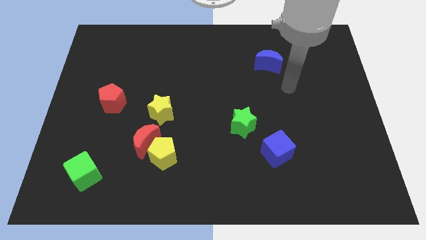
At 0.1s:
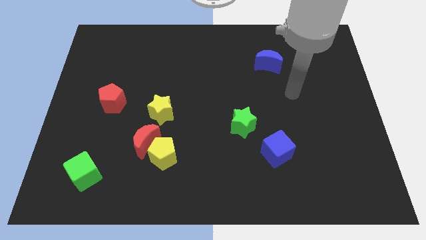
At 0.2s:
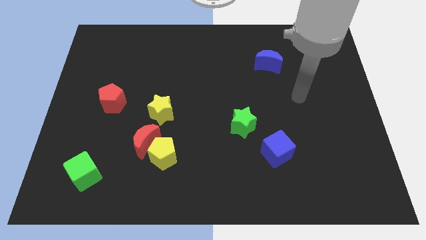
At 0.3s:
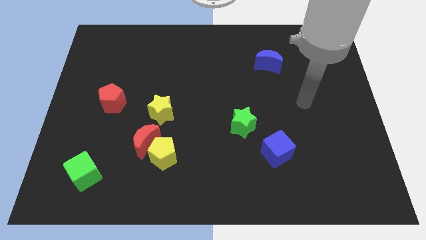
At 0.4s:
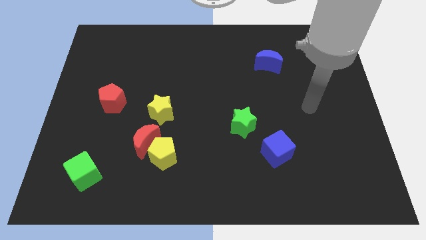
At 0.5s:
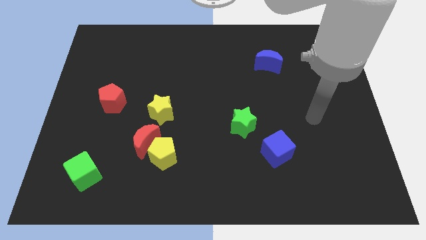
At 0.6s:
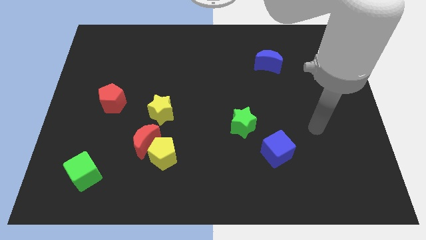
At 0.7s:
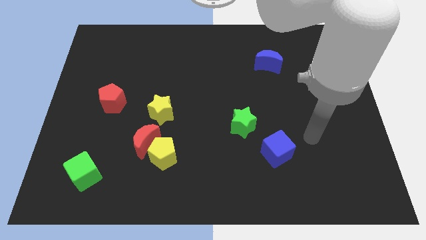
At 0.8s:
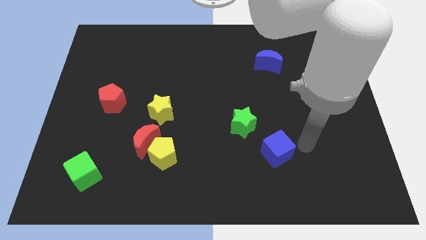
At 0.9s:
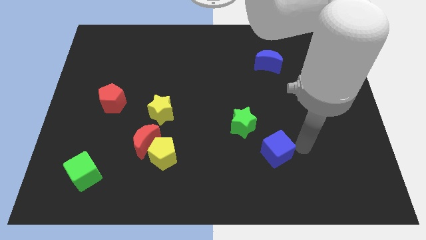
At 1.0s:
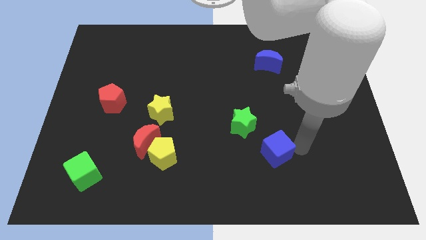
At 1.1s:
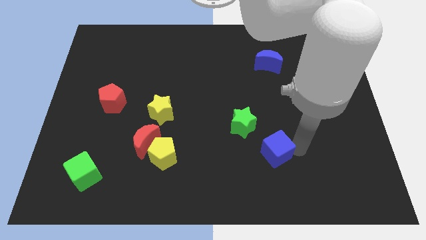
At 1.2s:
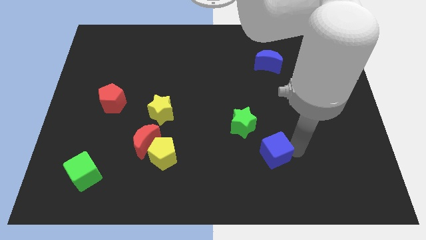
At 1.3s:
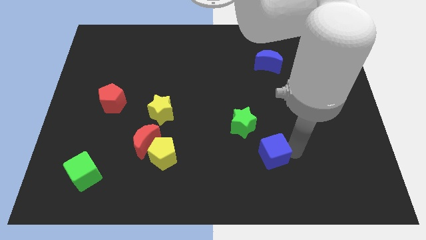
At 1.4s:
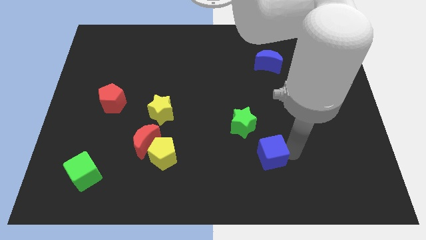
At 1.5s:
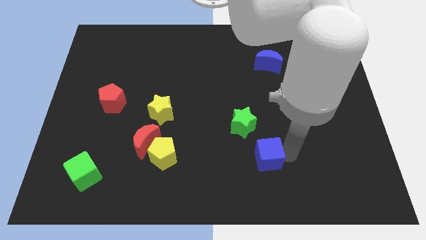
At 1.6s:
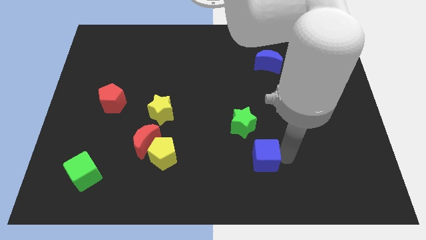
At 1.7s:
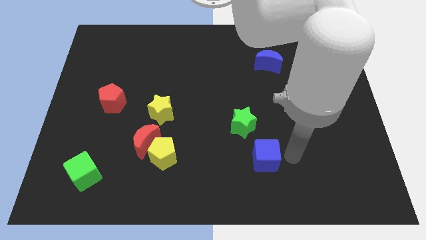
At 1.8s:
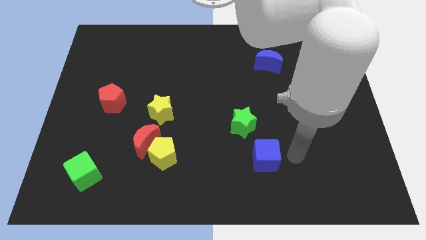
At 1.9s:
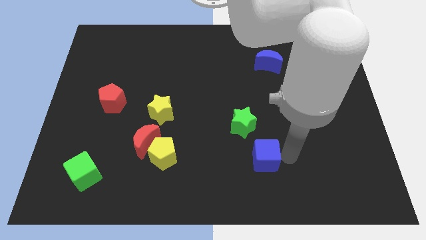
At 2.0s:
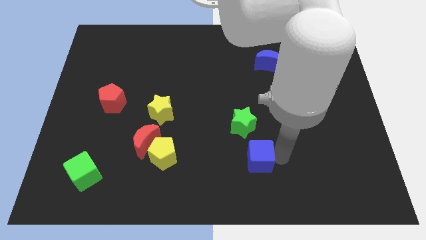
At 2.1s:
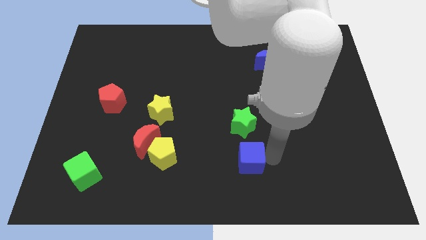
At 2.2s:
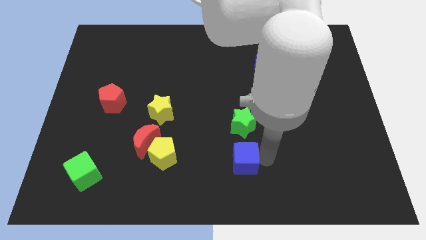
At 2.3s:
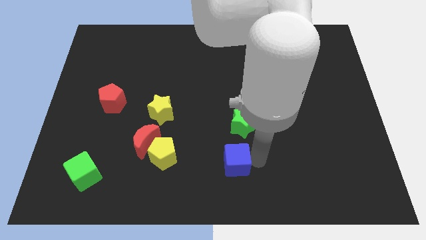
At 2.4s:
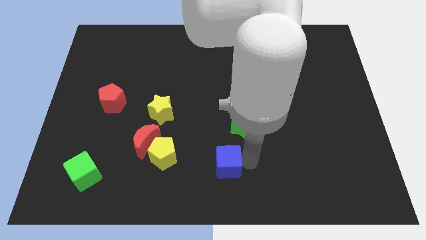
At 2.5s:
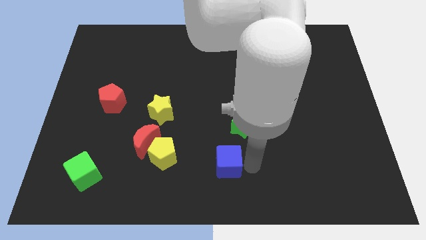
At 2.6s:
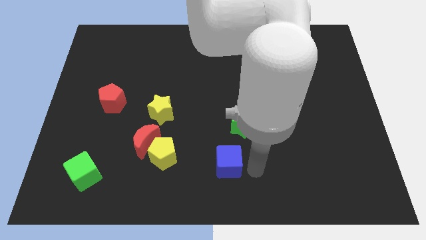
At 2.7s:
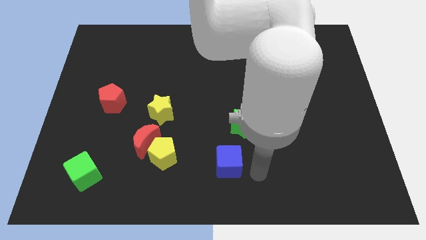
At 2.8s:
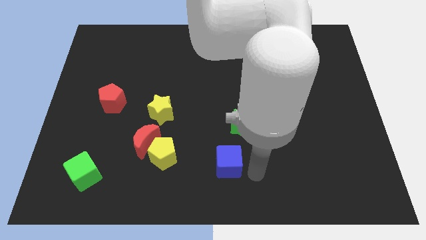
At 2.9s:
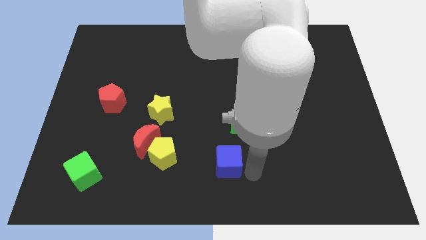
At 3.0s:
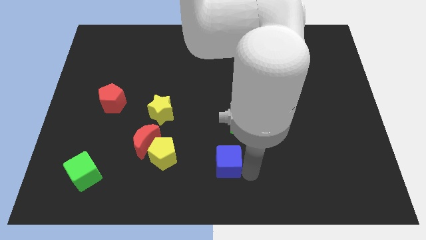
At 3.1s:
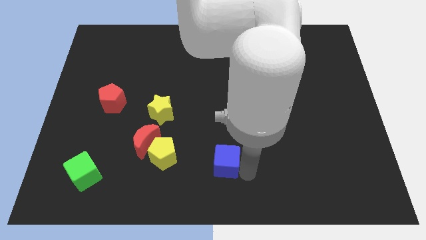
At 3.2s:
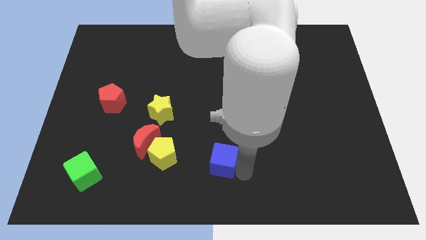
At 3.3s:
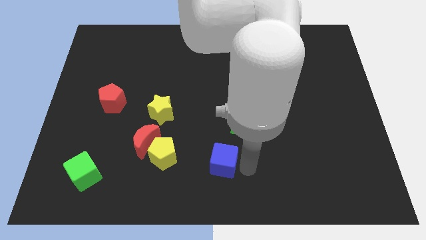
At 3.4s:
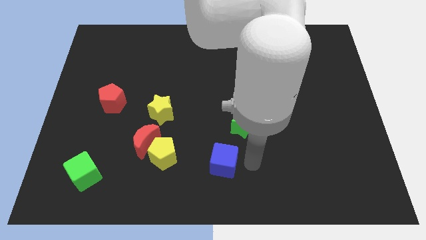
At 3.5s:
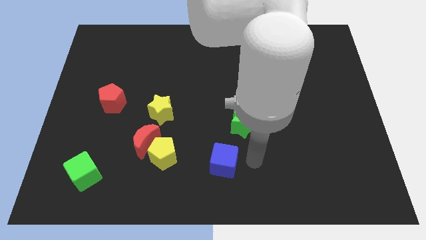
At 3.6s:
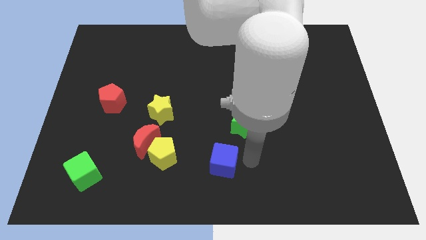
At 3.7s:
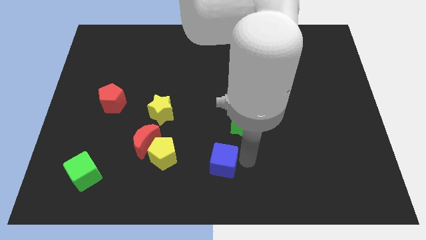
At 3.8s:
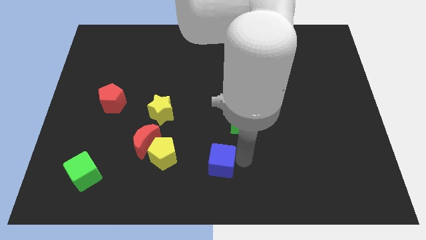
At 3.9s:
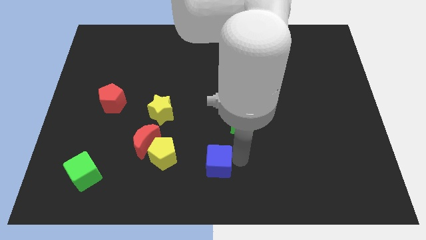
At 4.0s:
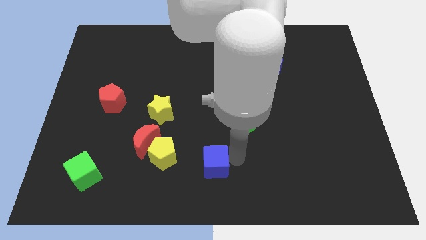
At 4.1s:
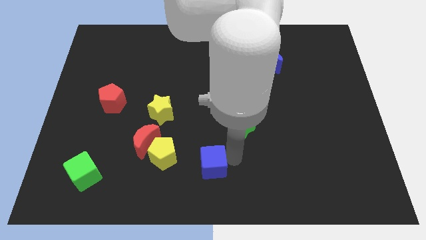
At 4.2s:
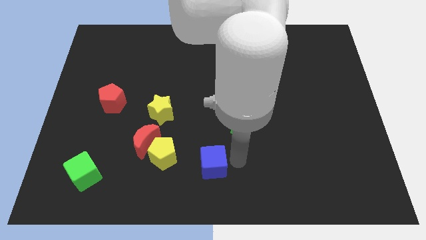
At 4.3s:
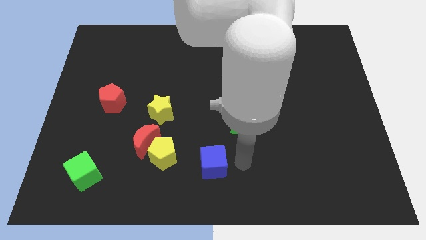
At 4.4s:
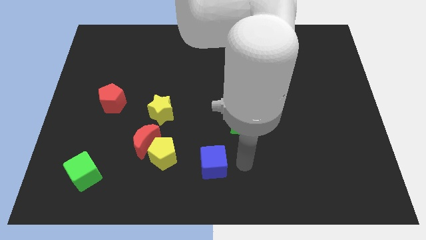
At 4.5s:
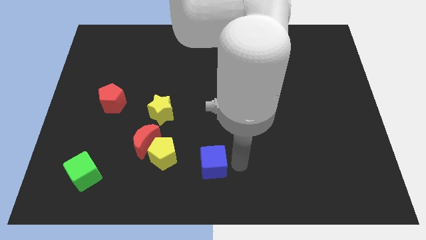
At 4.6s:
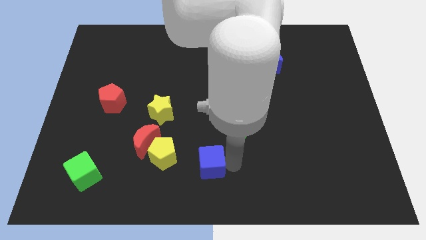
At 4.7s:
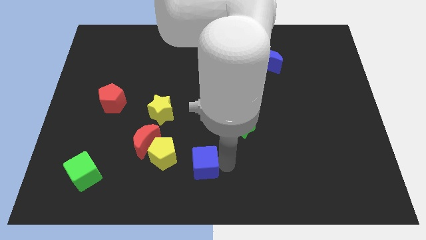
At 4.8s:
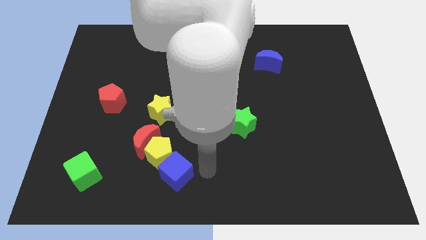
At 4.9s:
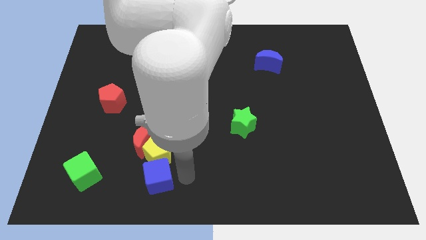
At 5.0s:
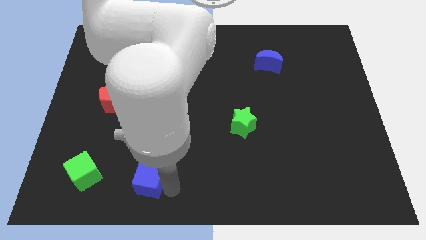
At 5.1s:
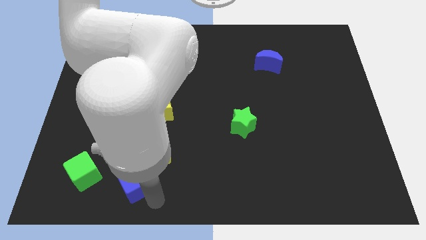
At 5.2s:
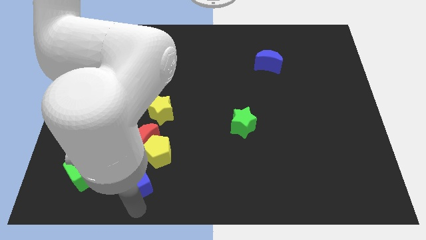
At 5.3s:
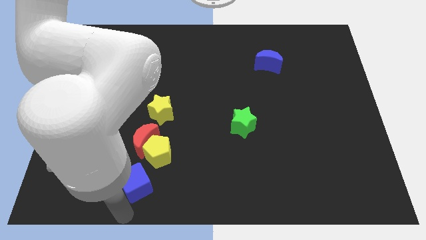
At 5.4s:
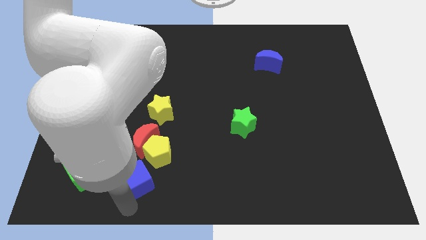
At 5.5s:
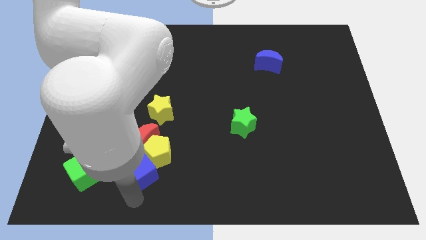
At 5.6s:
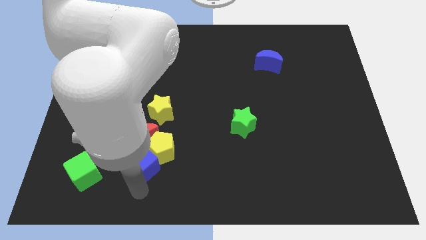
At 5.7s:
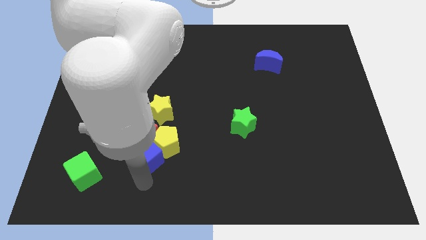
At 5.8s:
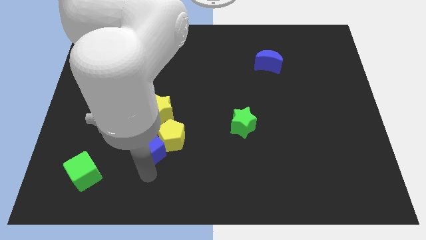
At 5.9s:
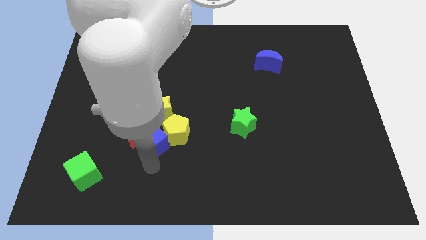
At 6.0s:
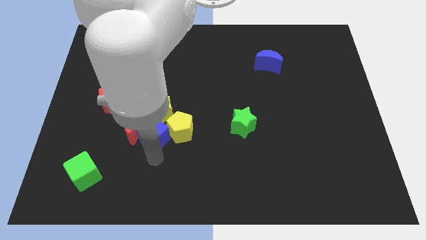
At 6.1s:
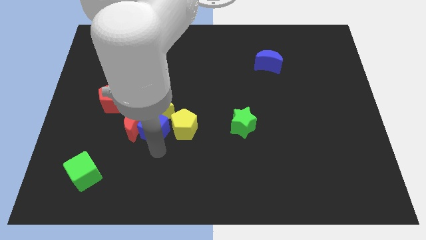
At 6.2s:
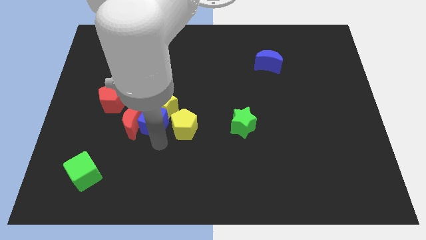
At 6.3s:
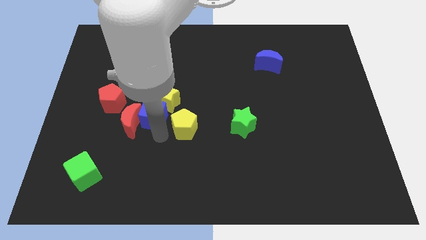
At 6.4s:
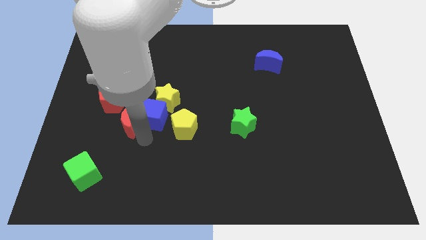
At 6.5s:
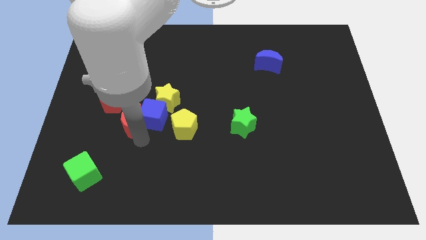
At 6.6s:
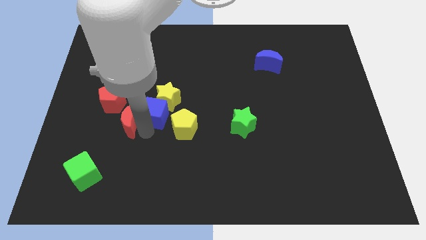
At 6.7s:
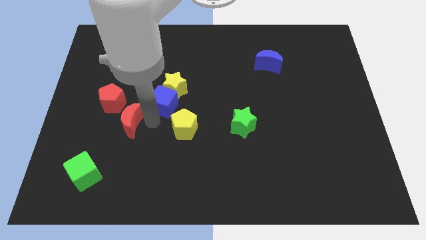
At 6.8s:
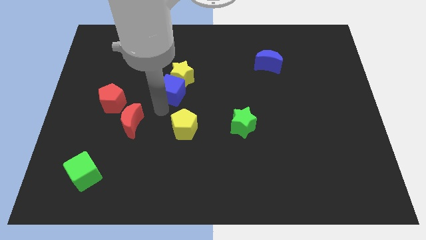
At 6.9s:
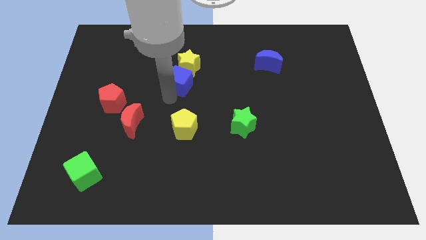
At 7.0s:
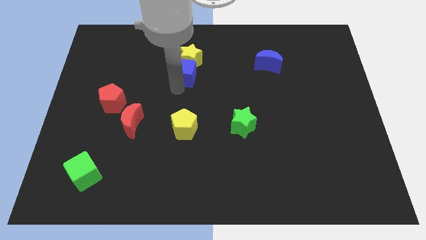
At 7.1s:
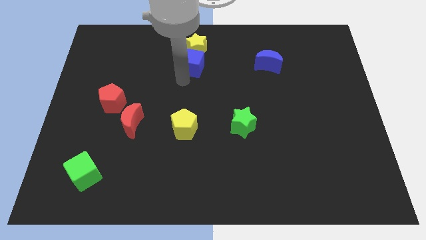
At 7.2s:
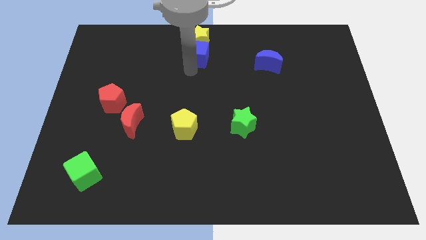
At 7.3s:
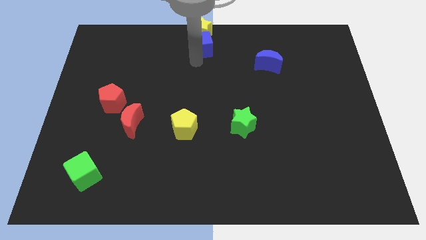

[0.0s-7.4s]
put the blue cube to the towards your base
